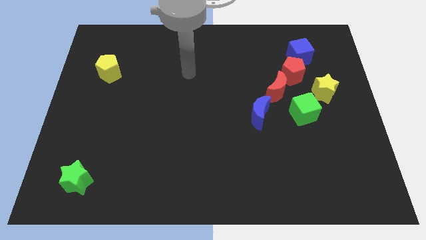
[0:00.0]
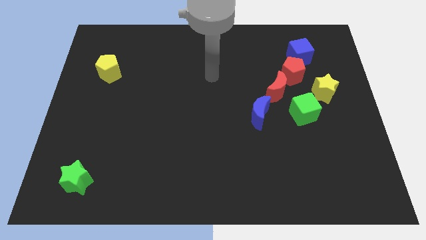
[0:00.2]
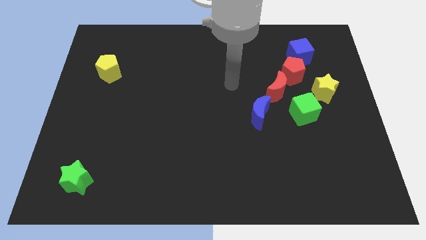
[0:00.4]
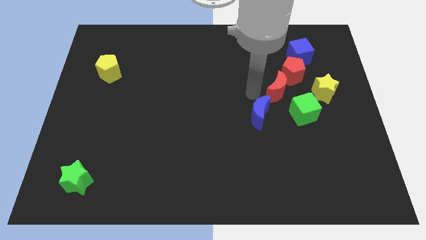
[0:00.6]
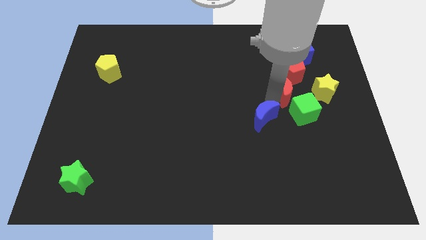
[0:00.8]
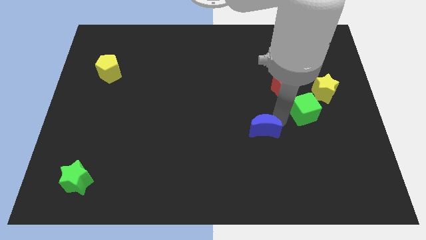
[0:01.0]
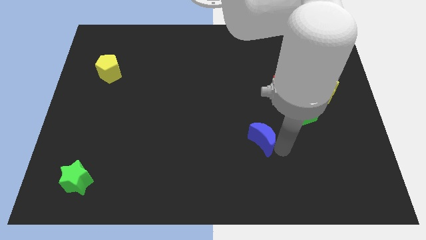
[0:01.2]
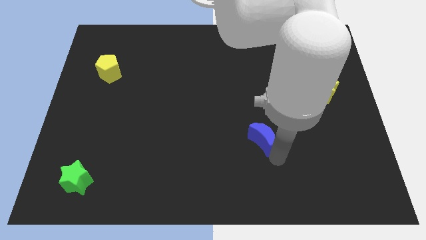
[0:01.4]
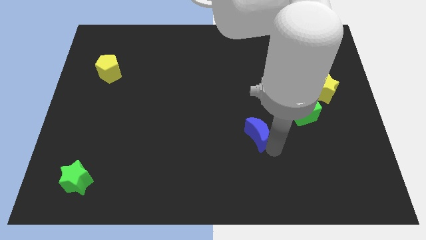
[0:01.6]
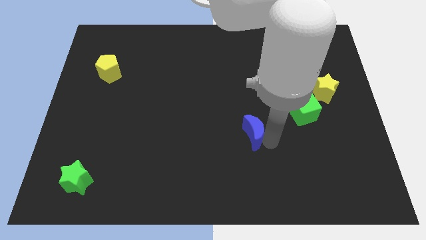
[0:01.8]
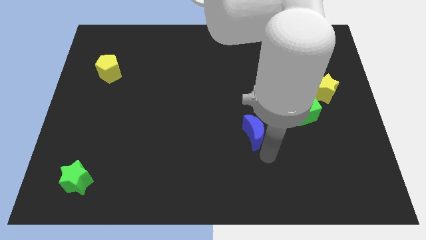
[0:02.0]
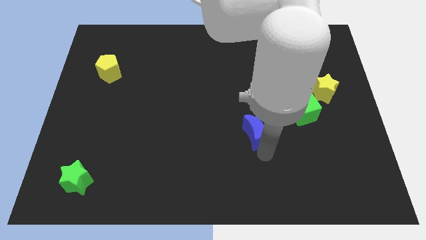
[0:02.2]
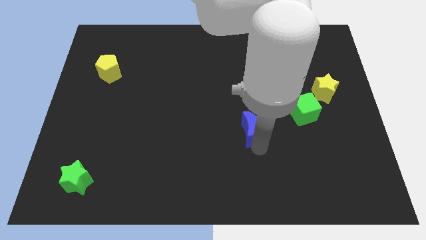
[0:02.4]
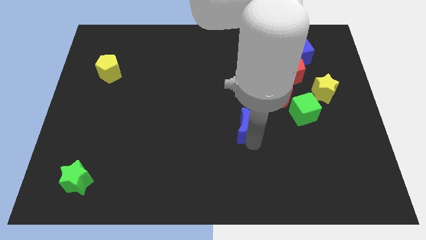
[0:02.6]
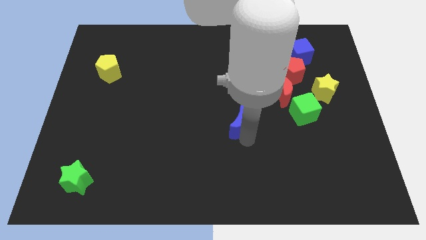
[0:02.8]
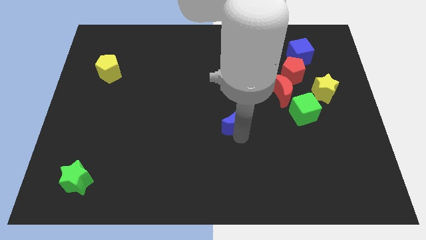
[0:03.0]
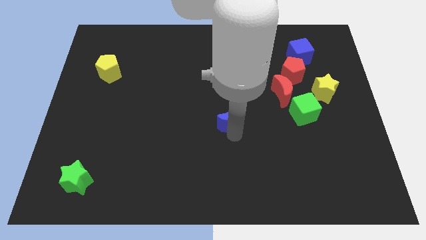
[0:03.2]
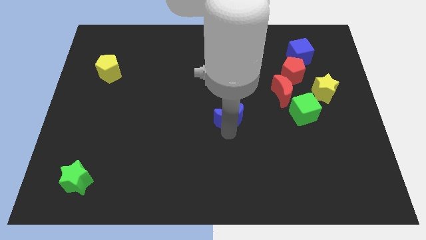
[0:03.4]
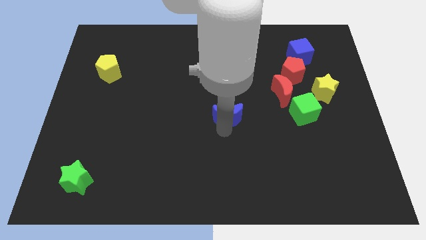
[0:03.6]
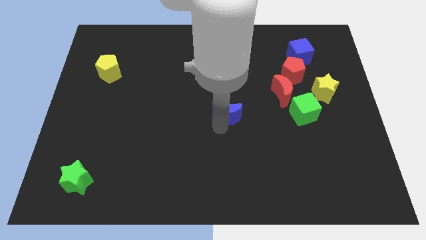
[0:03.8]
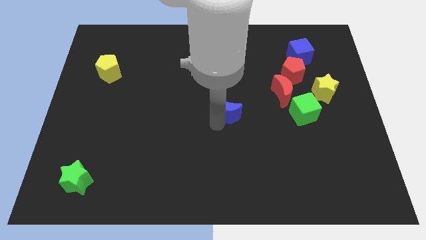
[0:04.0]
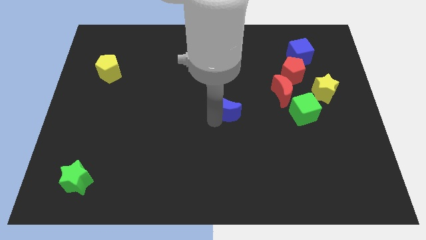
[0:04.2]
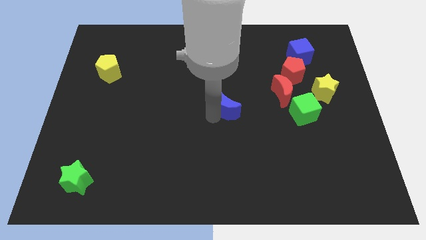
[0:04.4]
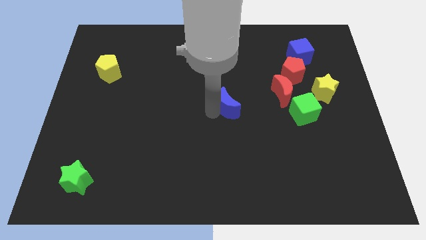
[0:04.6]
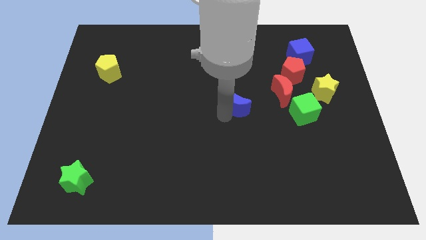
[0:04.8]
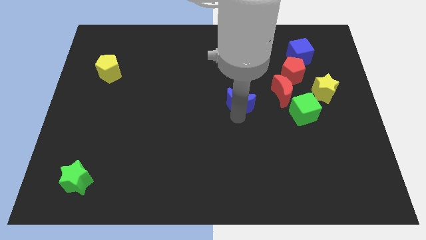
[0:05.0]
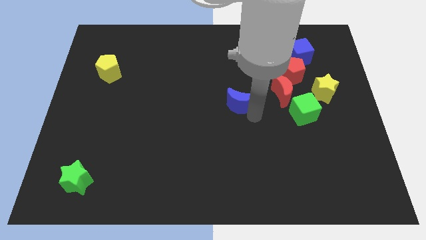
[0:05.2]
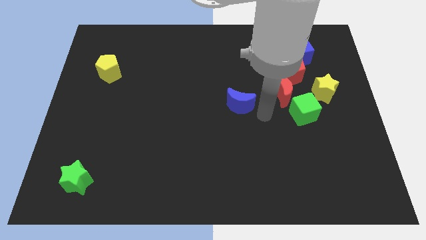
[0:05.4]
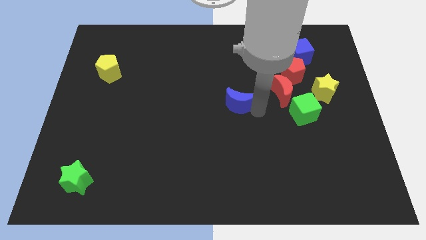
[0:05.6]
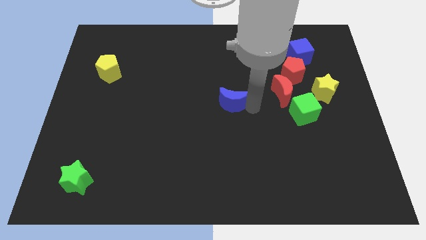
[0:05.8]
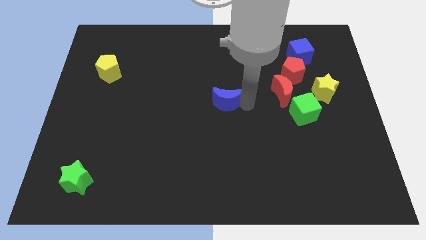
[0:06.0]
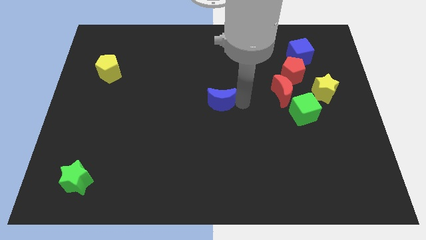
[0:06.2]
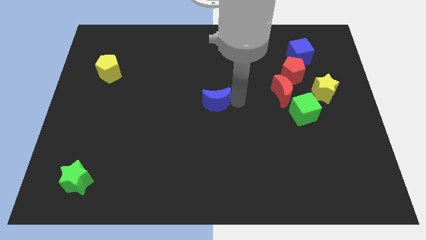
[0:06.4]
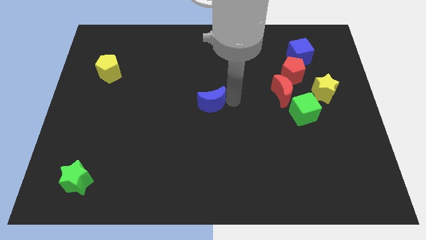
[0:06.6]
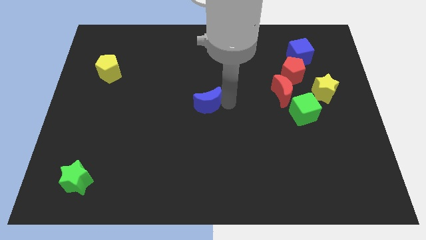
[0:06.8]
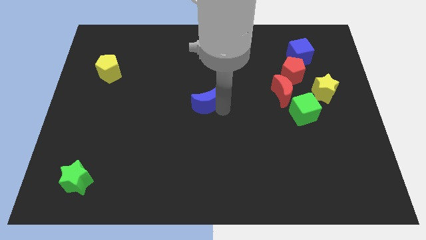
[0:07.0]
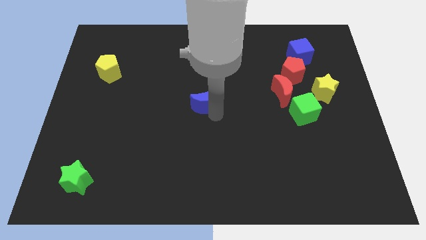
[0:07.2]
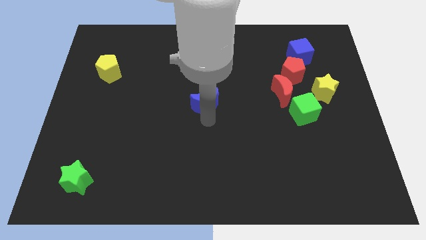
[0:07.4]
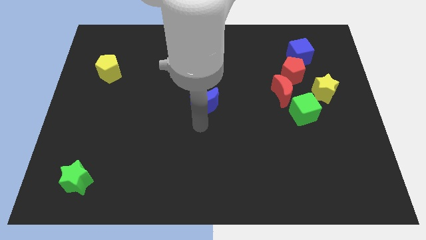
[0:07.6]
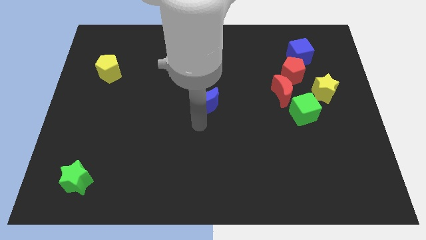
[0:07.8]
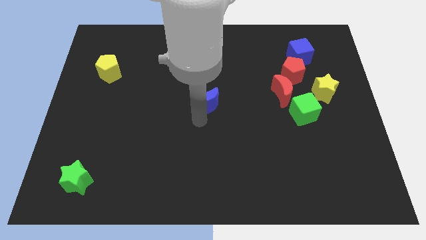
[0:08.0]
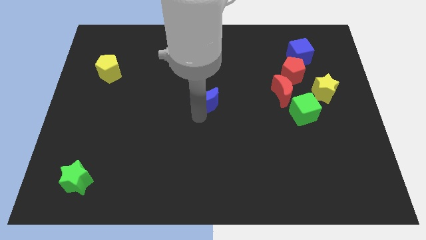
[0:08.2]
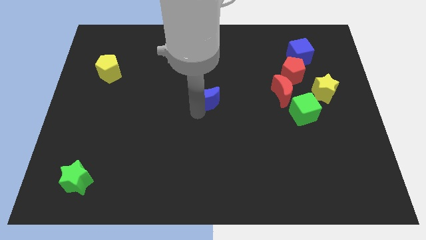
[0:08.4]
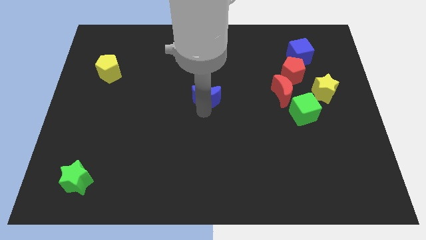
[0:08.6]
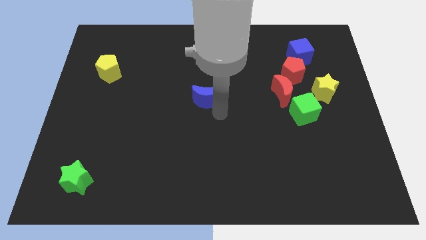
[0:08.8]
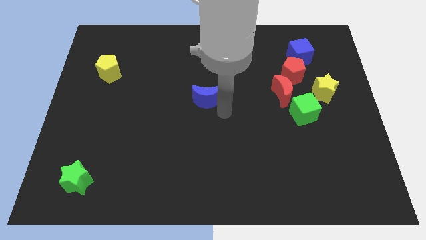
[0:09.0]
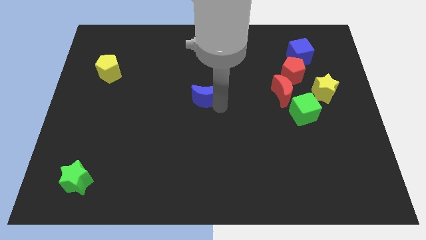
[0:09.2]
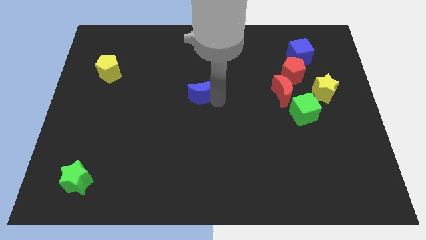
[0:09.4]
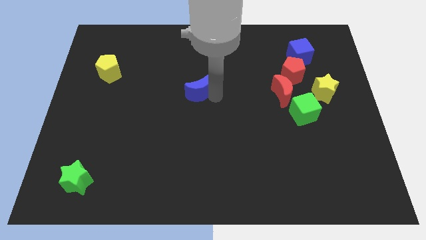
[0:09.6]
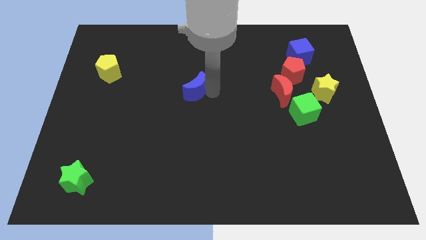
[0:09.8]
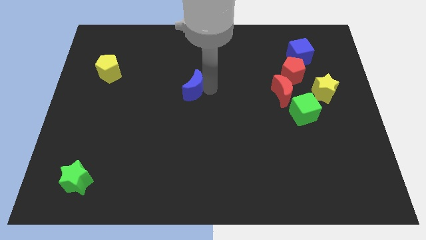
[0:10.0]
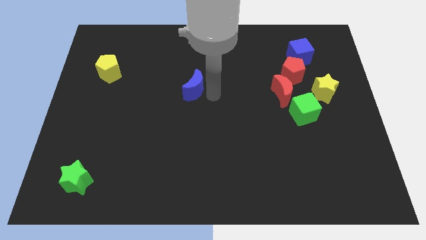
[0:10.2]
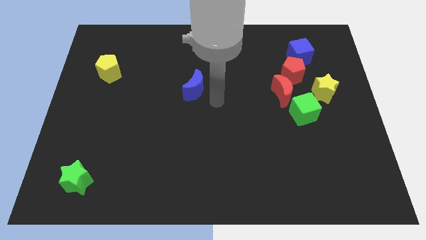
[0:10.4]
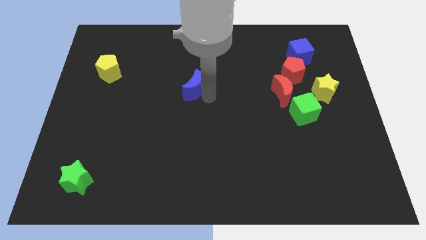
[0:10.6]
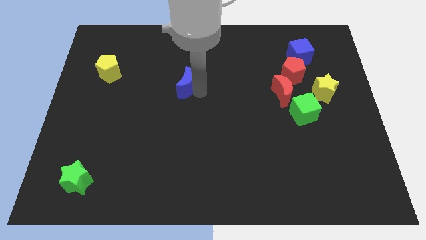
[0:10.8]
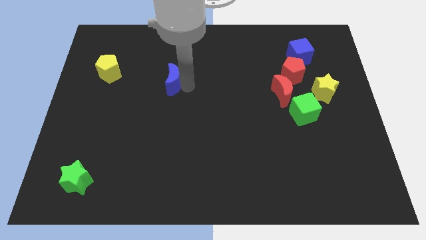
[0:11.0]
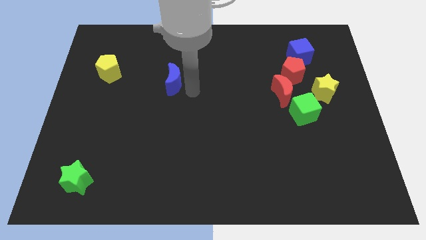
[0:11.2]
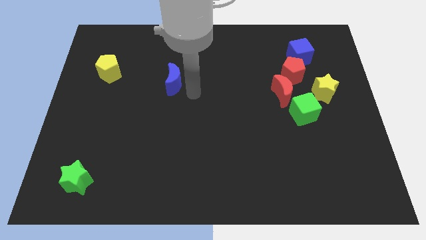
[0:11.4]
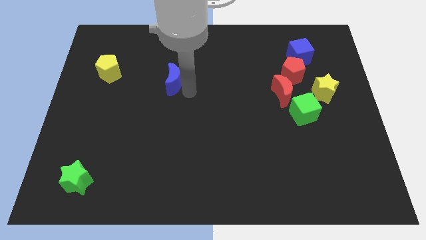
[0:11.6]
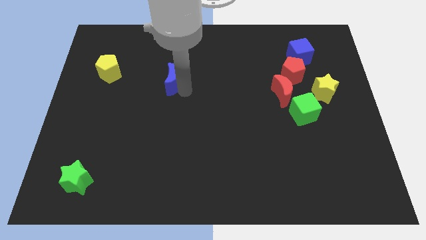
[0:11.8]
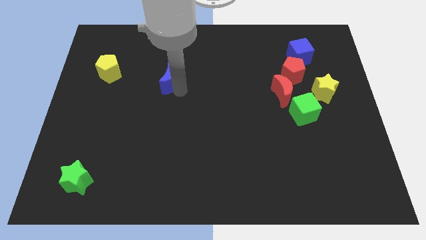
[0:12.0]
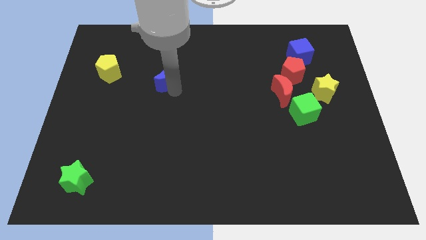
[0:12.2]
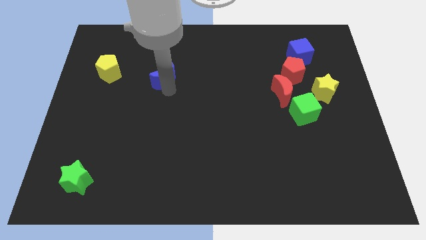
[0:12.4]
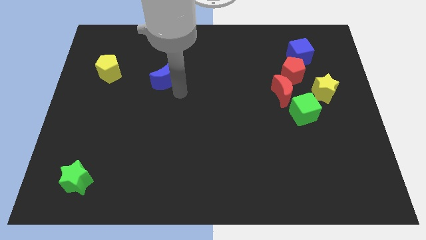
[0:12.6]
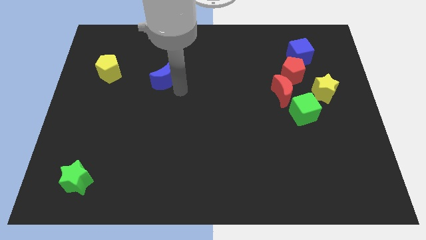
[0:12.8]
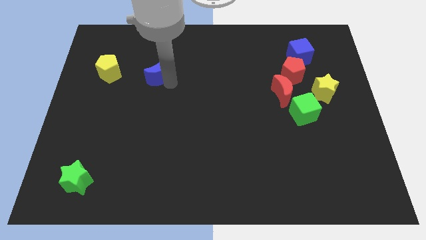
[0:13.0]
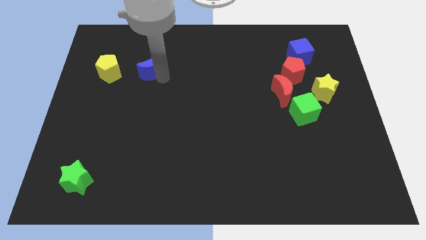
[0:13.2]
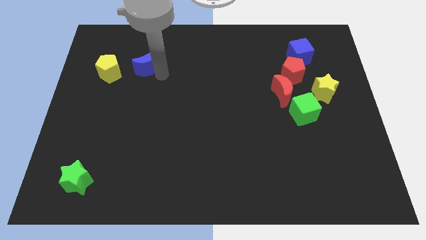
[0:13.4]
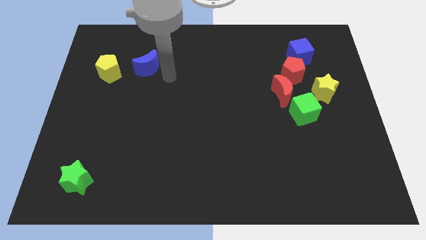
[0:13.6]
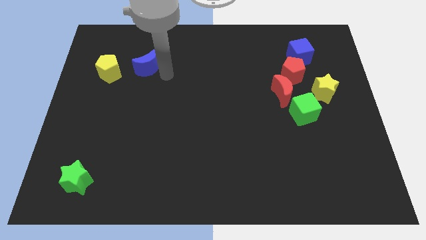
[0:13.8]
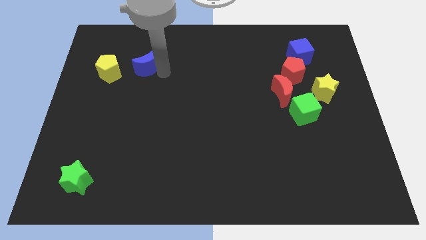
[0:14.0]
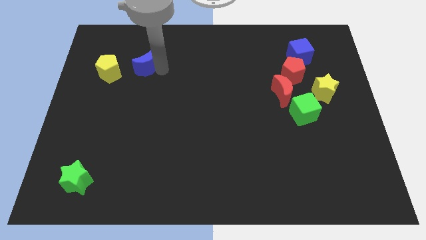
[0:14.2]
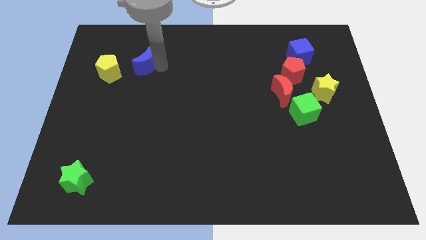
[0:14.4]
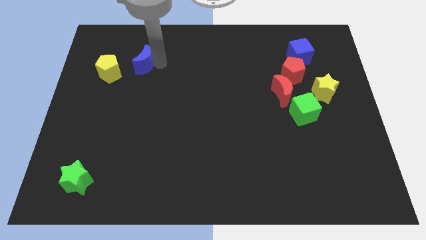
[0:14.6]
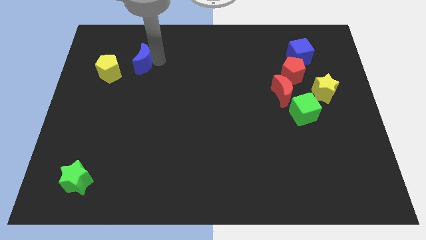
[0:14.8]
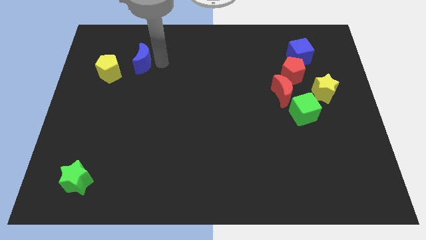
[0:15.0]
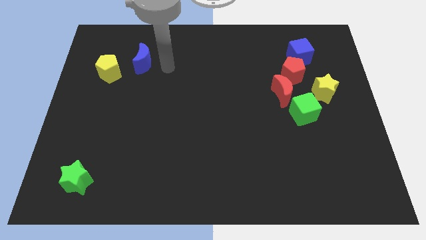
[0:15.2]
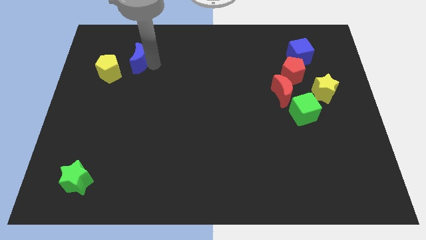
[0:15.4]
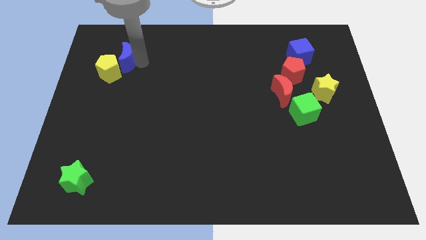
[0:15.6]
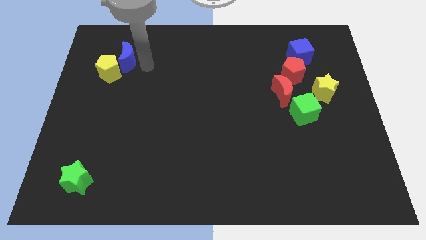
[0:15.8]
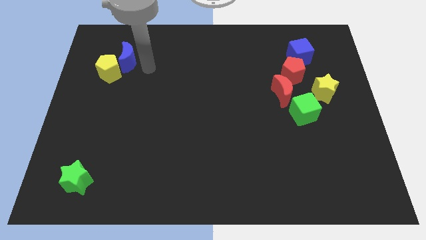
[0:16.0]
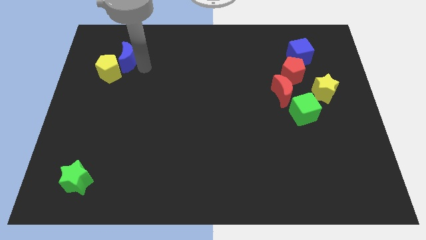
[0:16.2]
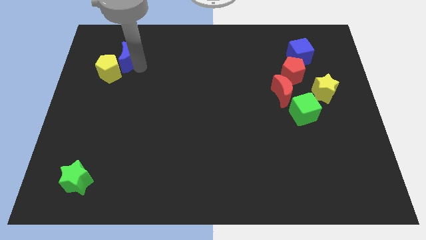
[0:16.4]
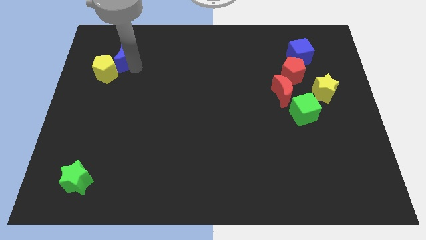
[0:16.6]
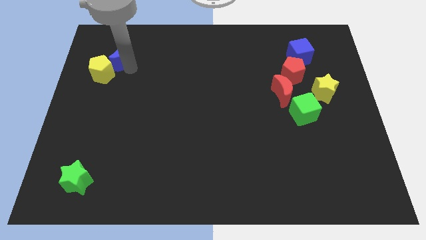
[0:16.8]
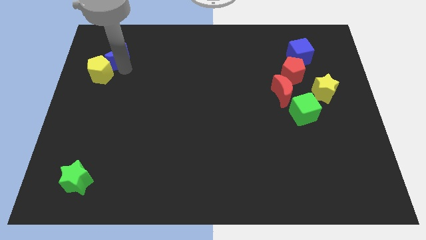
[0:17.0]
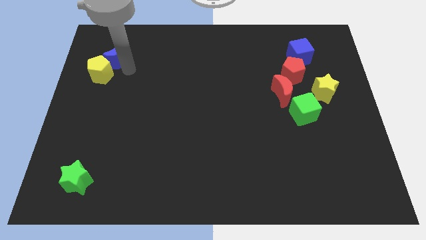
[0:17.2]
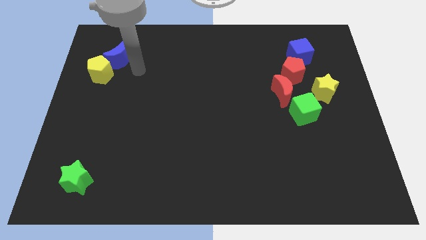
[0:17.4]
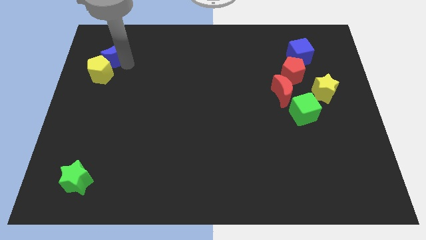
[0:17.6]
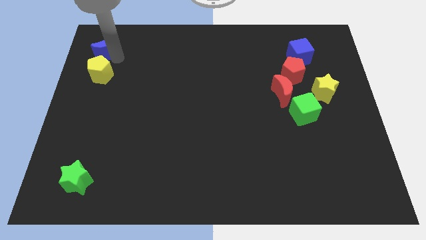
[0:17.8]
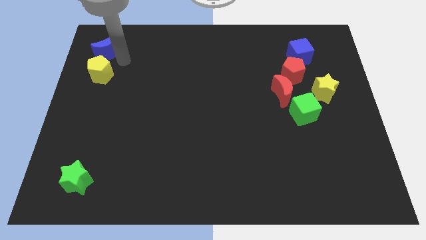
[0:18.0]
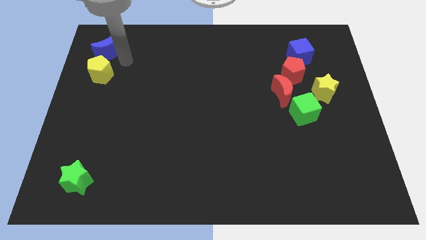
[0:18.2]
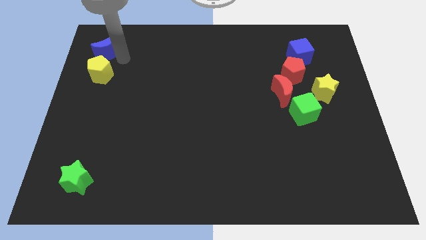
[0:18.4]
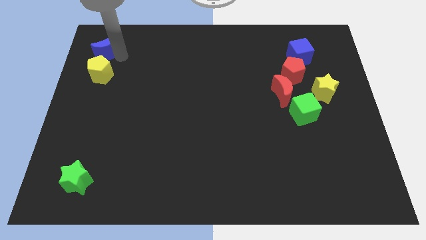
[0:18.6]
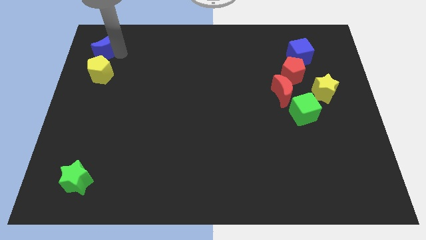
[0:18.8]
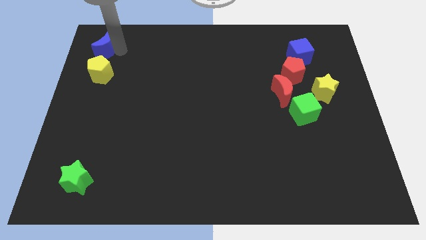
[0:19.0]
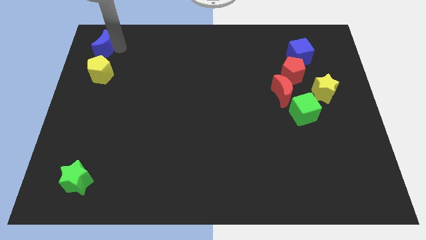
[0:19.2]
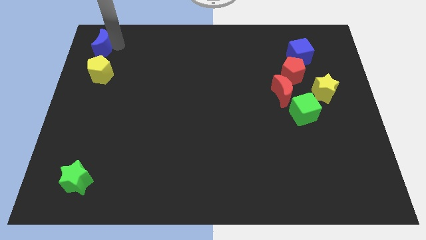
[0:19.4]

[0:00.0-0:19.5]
move the blue moon to the top left
